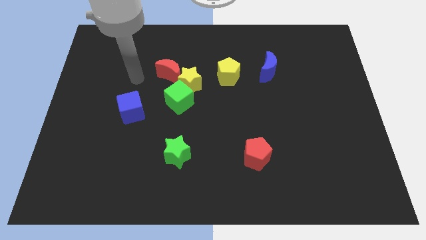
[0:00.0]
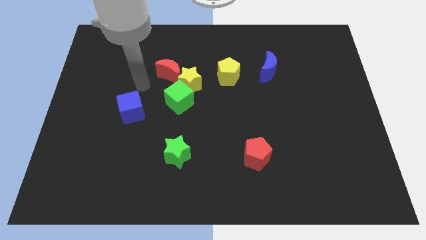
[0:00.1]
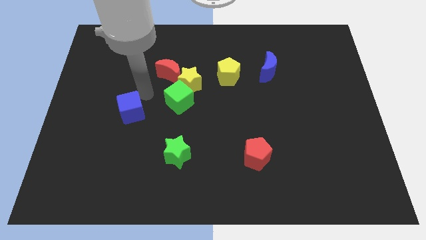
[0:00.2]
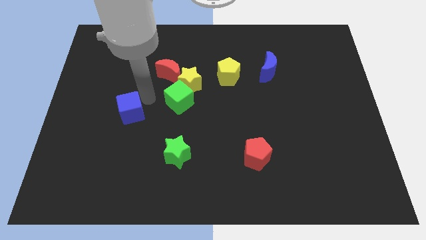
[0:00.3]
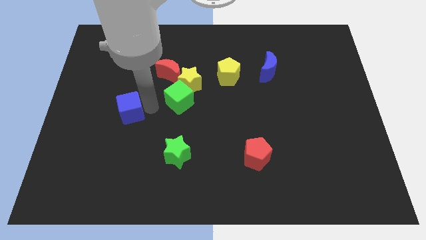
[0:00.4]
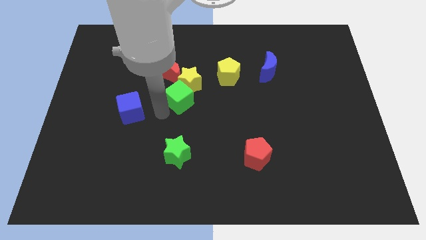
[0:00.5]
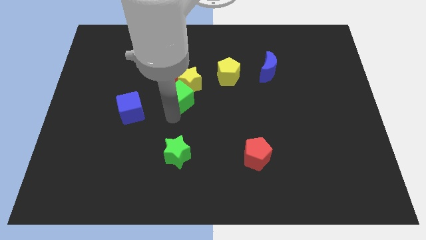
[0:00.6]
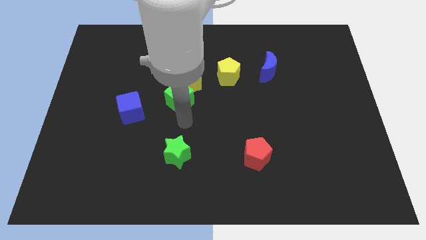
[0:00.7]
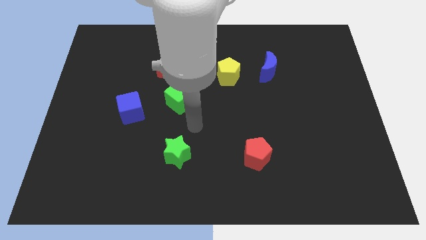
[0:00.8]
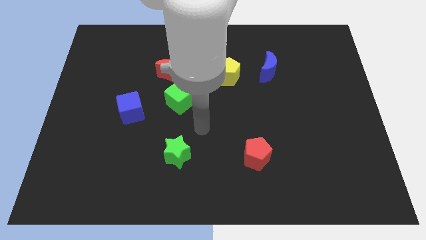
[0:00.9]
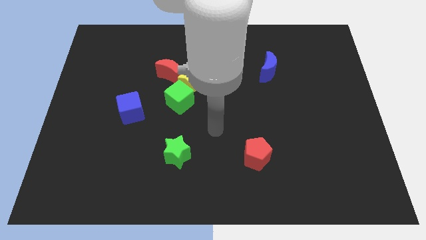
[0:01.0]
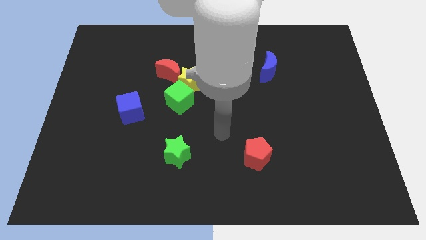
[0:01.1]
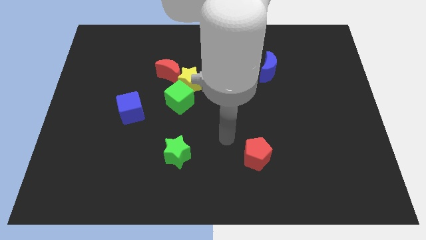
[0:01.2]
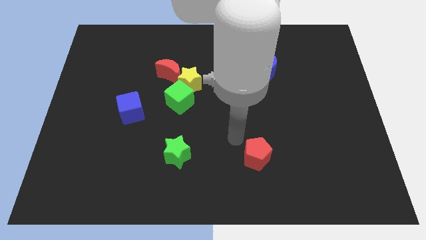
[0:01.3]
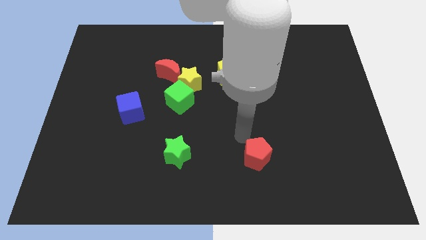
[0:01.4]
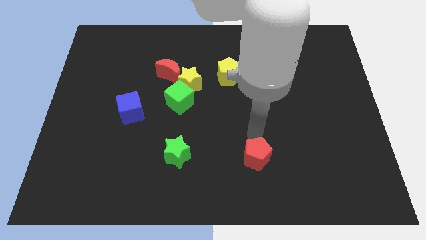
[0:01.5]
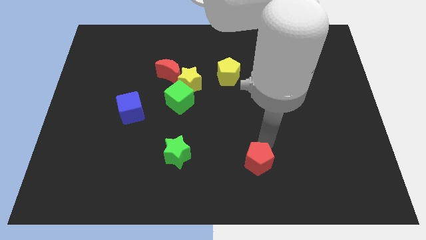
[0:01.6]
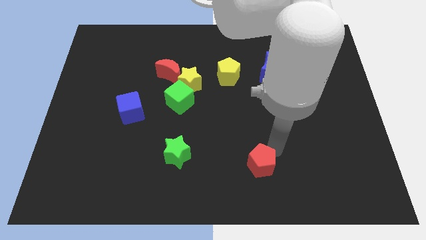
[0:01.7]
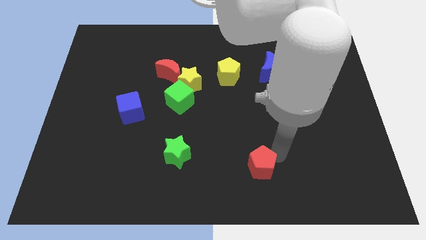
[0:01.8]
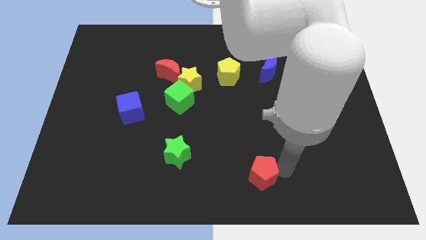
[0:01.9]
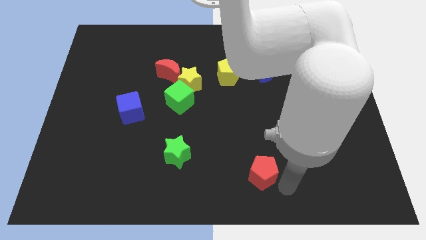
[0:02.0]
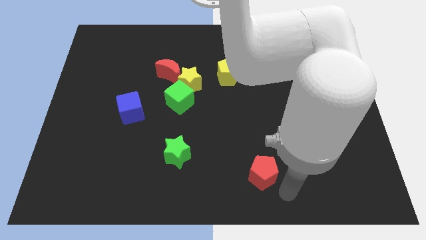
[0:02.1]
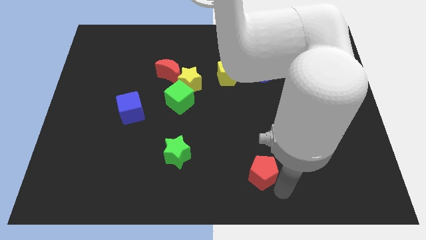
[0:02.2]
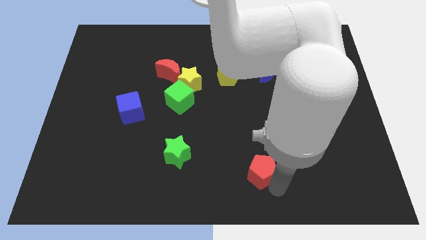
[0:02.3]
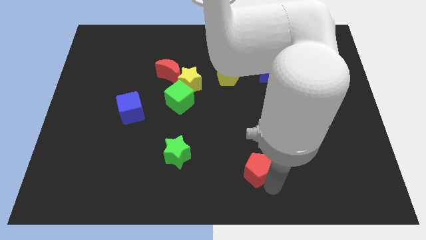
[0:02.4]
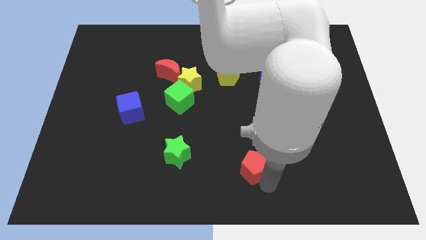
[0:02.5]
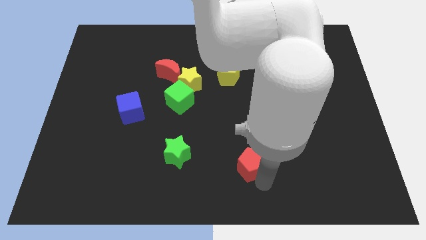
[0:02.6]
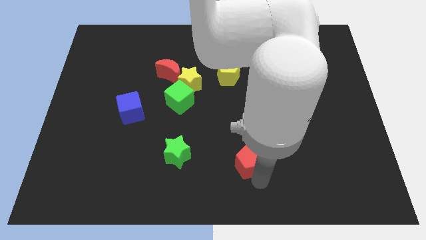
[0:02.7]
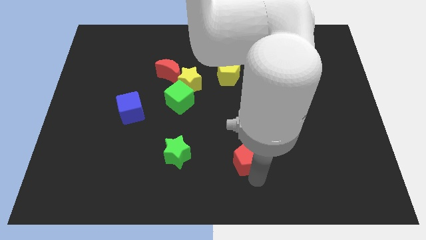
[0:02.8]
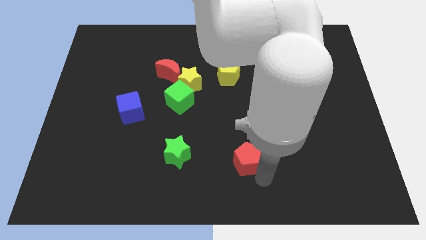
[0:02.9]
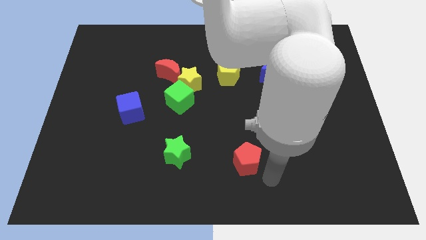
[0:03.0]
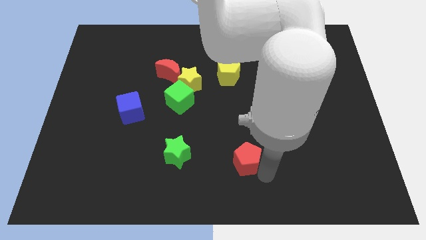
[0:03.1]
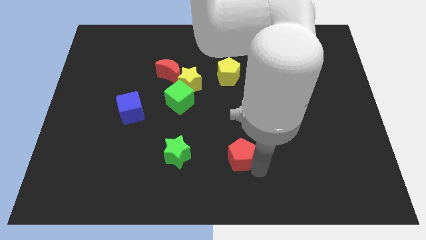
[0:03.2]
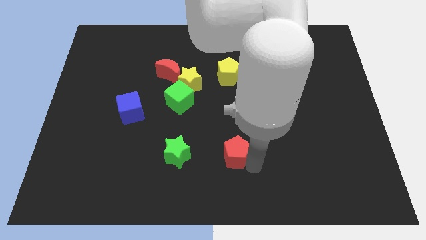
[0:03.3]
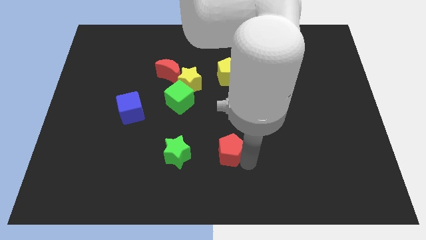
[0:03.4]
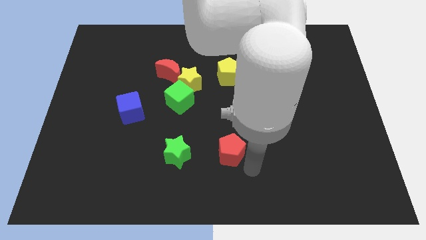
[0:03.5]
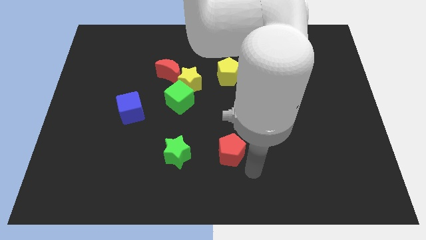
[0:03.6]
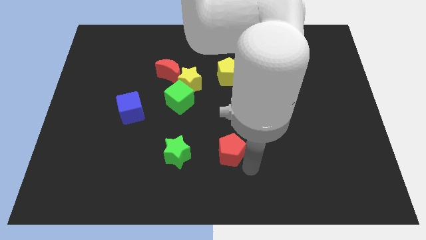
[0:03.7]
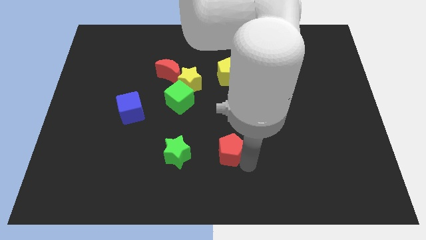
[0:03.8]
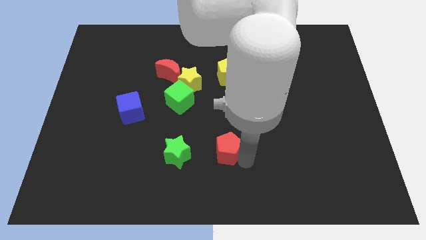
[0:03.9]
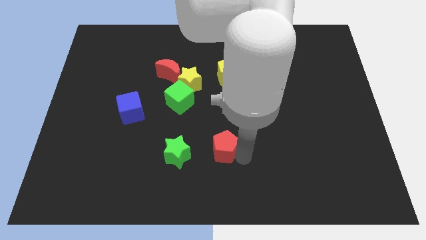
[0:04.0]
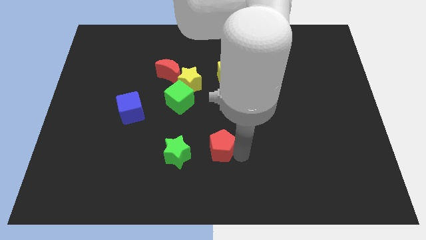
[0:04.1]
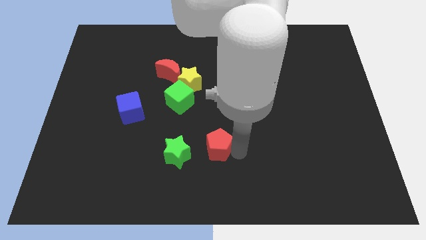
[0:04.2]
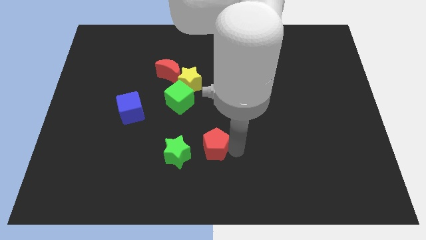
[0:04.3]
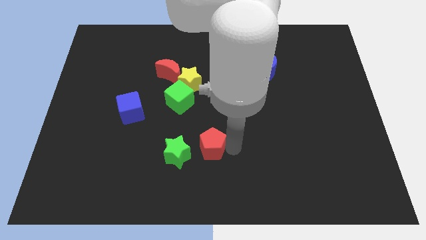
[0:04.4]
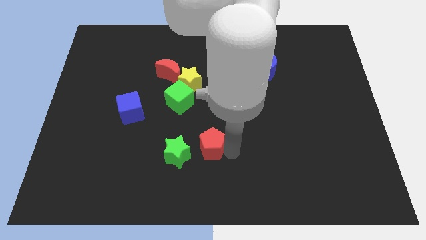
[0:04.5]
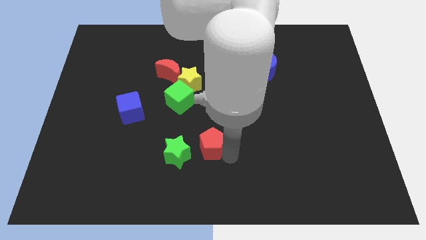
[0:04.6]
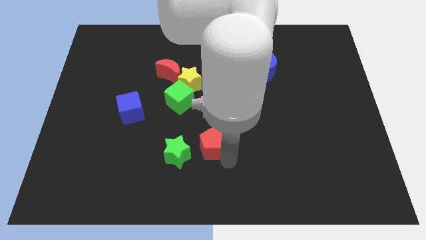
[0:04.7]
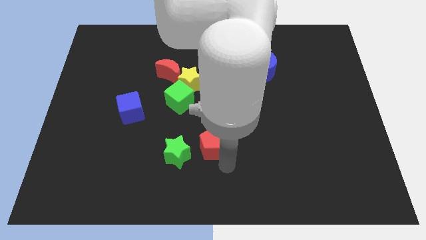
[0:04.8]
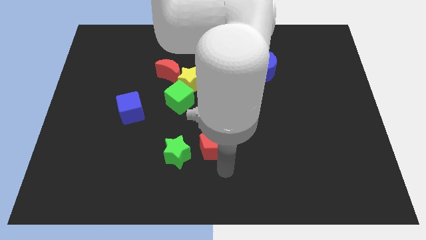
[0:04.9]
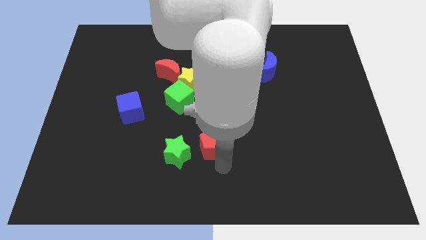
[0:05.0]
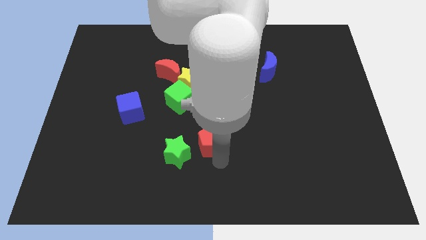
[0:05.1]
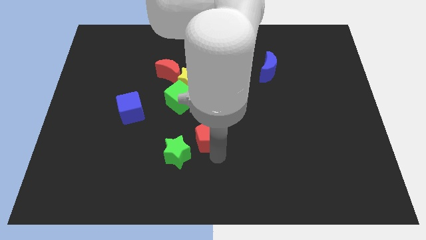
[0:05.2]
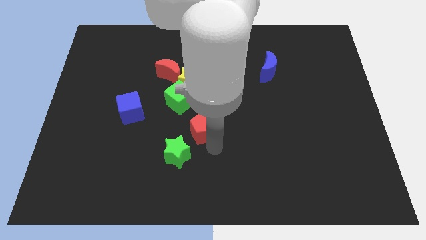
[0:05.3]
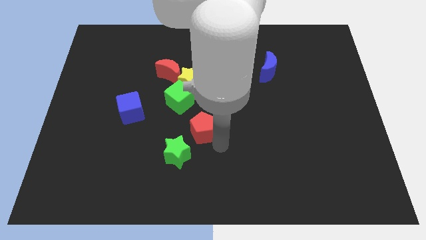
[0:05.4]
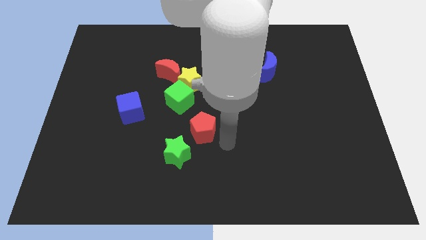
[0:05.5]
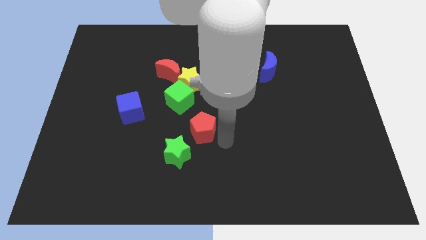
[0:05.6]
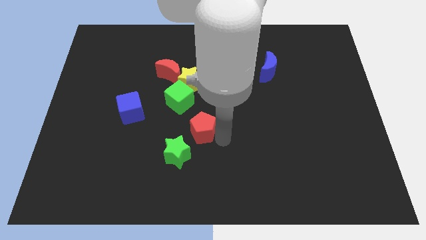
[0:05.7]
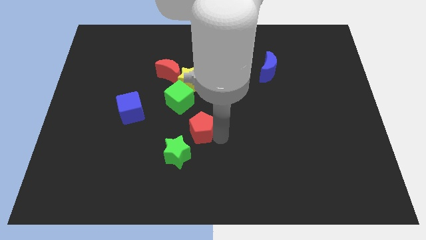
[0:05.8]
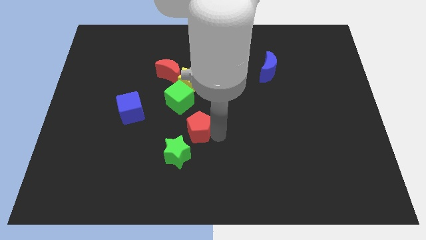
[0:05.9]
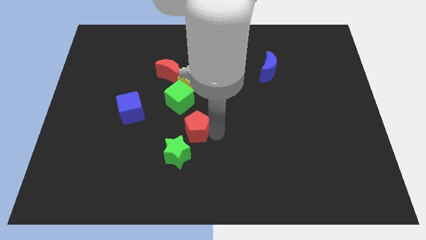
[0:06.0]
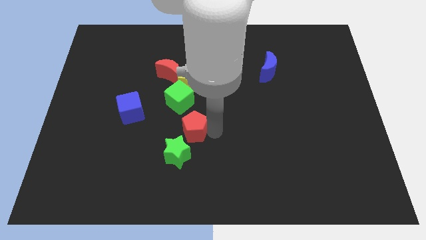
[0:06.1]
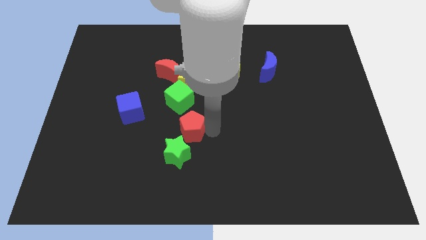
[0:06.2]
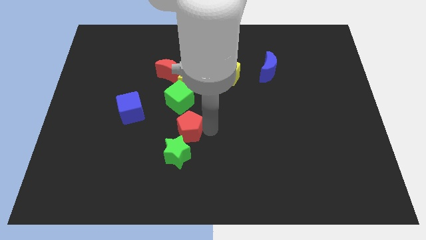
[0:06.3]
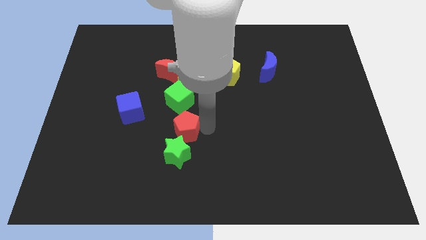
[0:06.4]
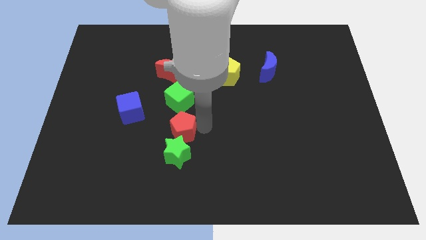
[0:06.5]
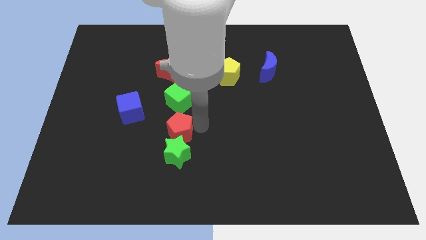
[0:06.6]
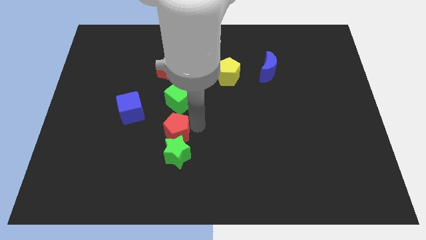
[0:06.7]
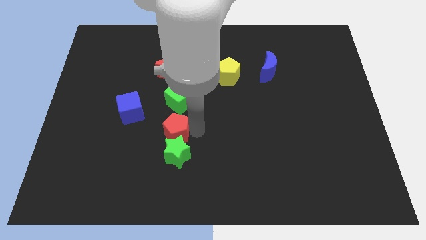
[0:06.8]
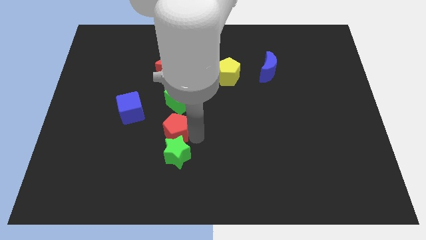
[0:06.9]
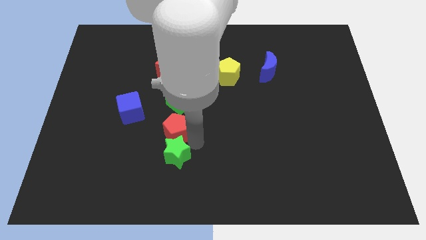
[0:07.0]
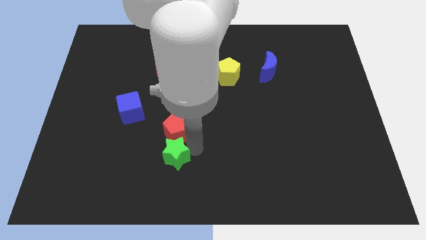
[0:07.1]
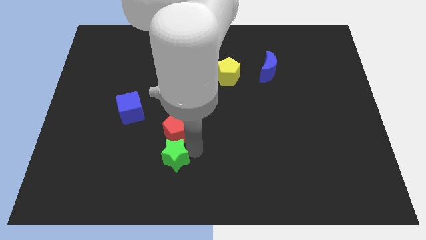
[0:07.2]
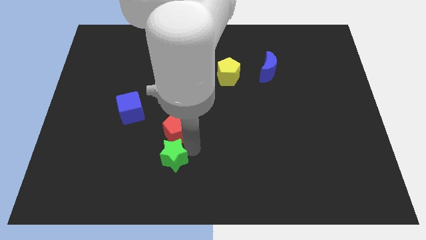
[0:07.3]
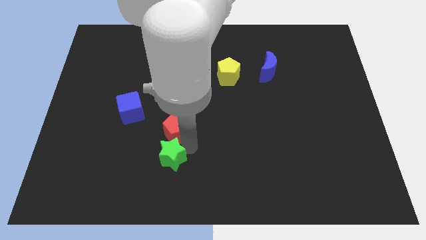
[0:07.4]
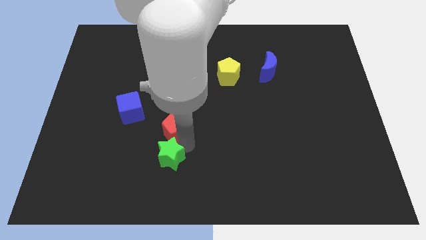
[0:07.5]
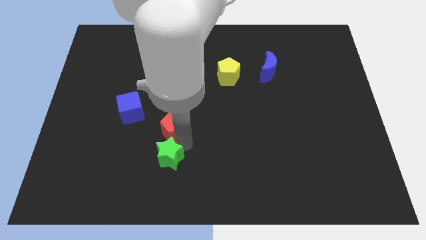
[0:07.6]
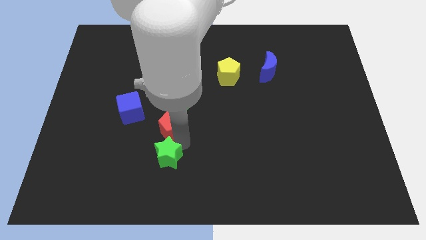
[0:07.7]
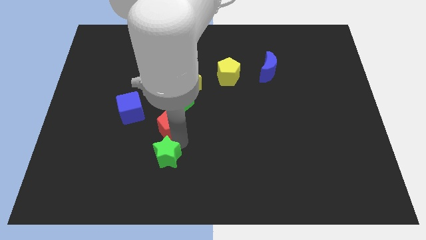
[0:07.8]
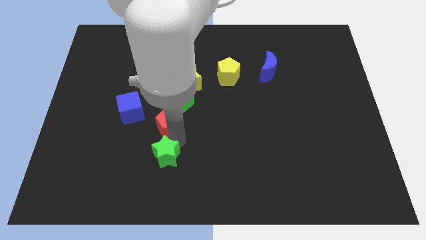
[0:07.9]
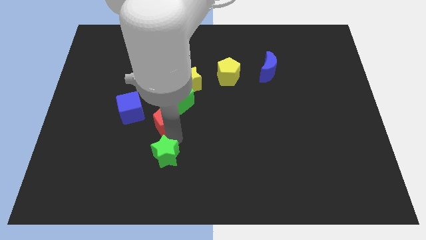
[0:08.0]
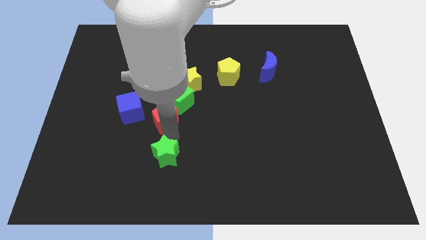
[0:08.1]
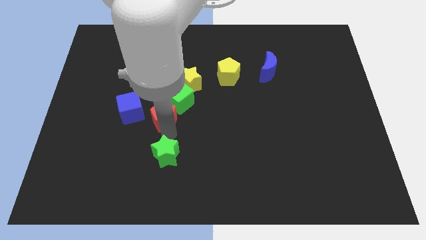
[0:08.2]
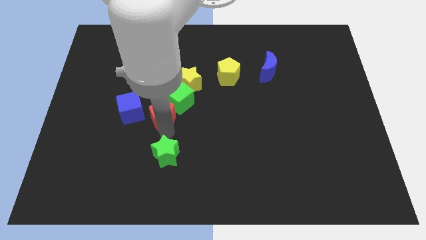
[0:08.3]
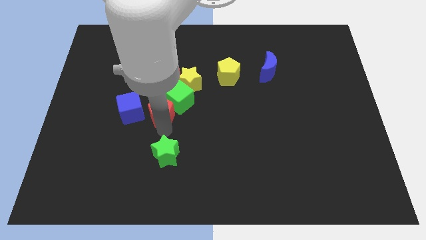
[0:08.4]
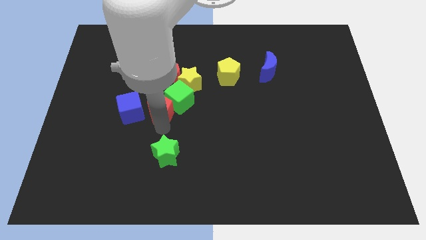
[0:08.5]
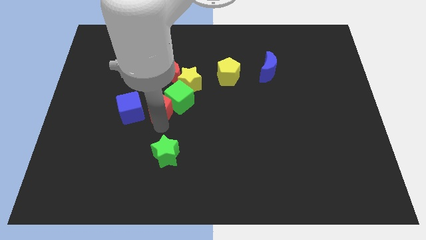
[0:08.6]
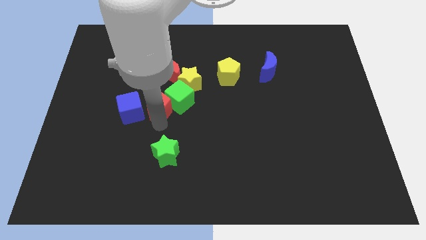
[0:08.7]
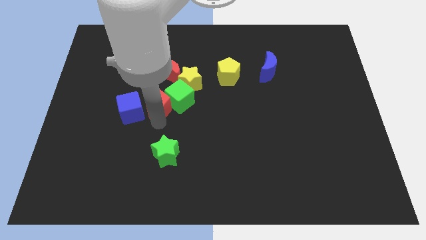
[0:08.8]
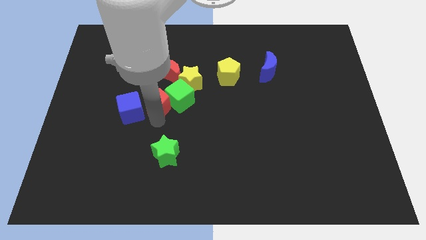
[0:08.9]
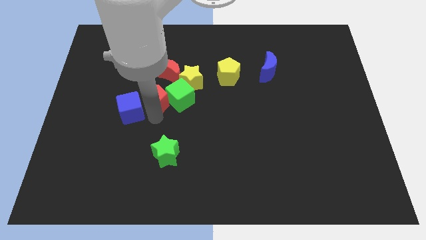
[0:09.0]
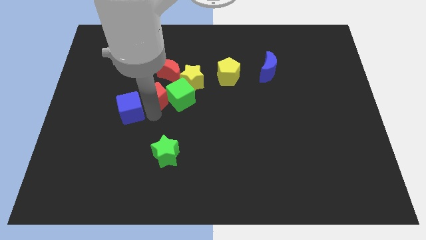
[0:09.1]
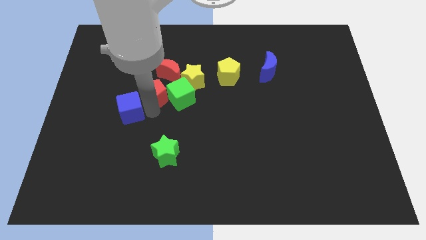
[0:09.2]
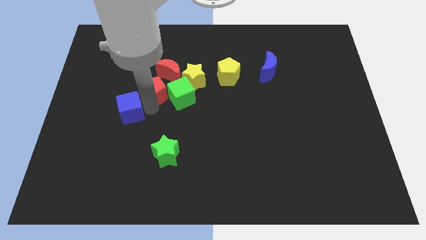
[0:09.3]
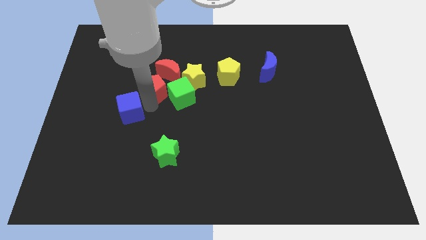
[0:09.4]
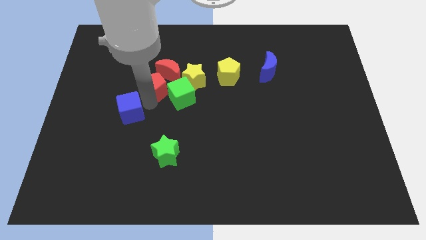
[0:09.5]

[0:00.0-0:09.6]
put the red pentagon close to the red moon
